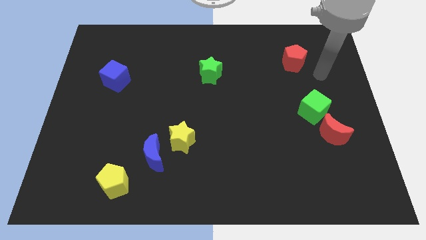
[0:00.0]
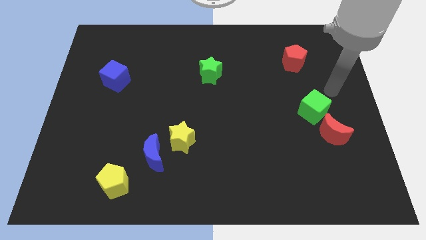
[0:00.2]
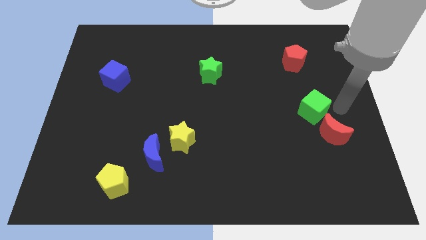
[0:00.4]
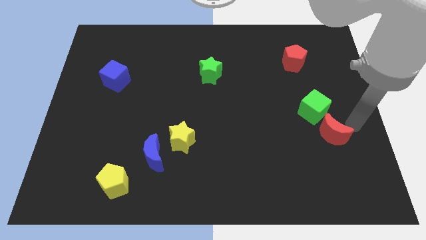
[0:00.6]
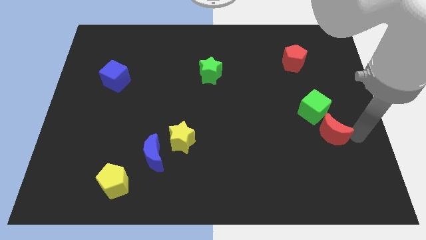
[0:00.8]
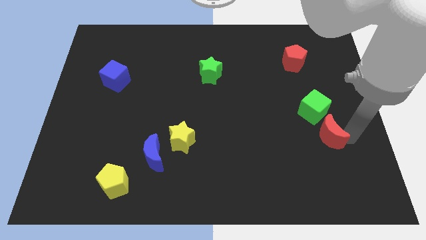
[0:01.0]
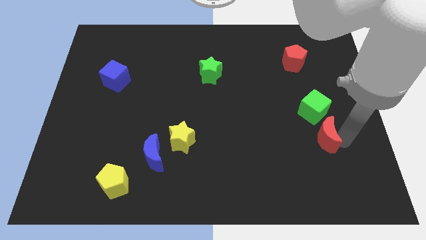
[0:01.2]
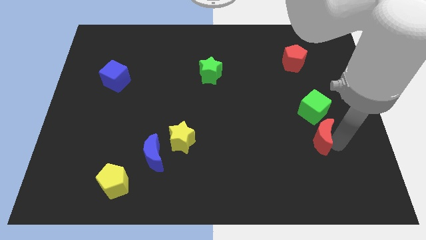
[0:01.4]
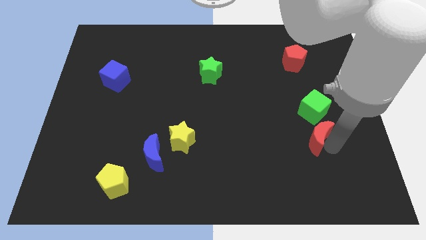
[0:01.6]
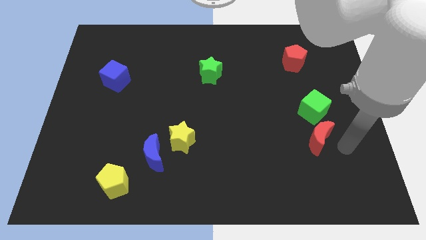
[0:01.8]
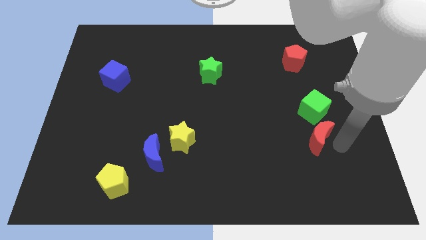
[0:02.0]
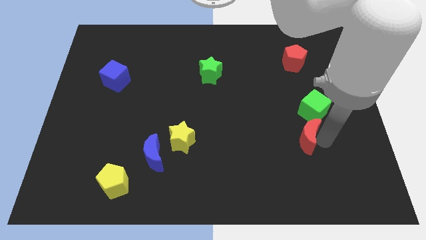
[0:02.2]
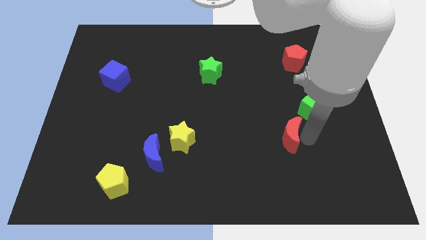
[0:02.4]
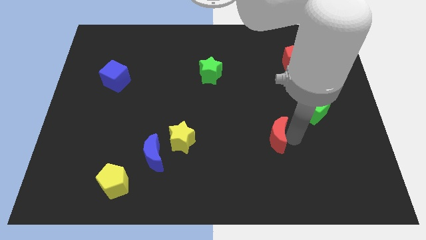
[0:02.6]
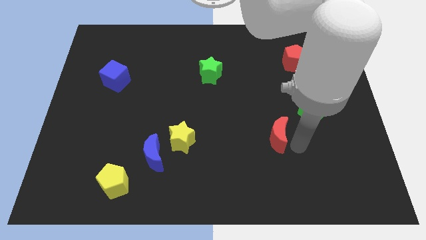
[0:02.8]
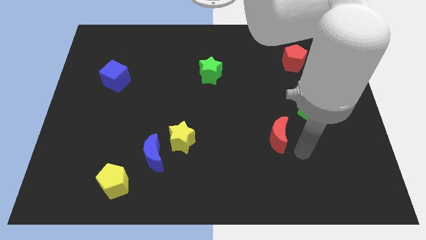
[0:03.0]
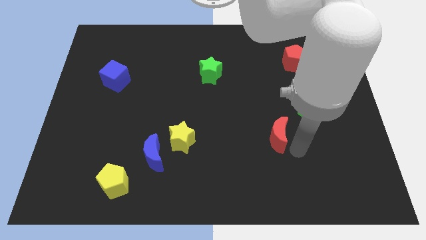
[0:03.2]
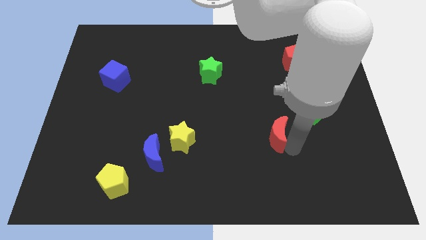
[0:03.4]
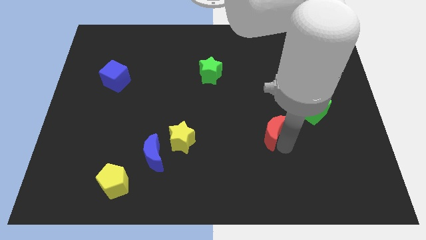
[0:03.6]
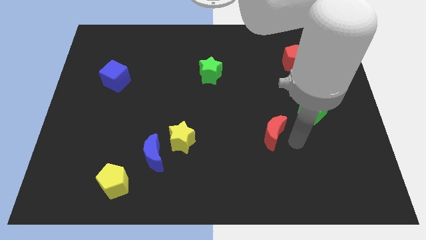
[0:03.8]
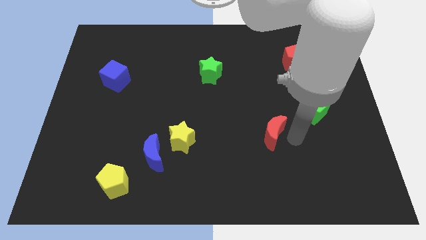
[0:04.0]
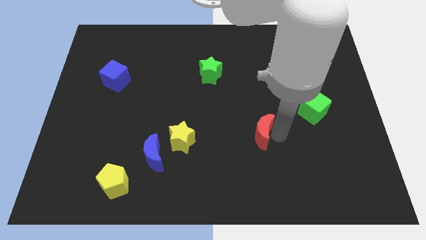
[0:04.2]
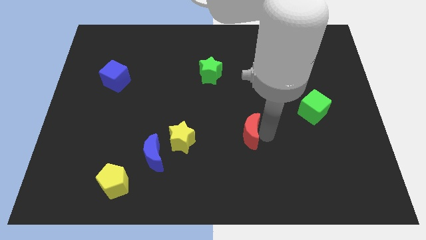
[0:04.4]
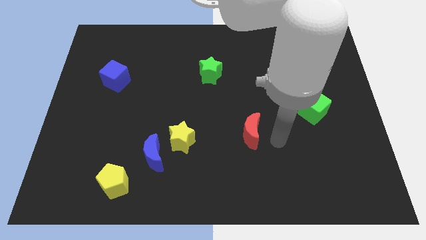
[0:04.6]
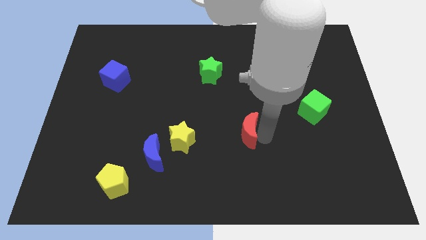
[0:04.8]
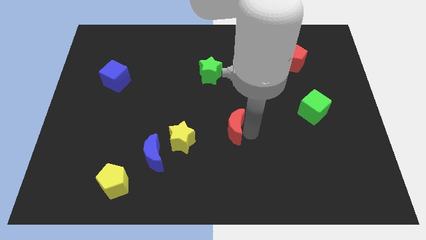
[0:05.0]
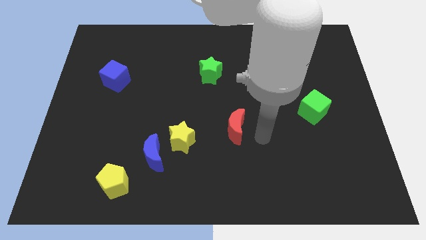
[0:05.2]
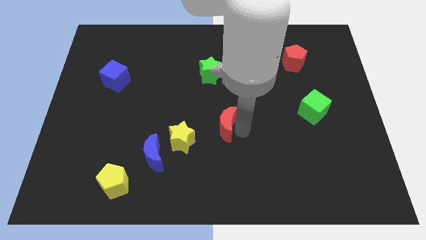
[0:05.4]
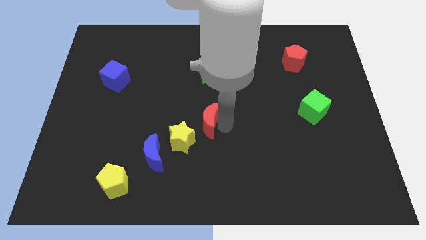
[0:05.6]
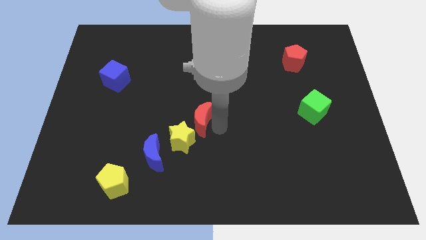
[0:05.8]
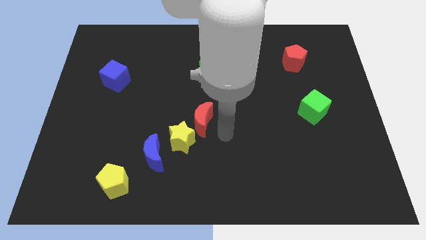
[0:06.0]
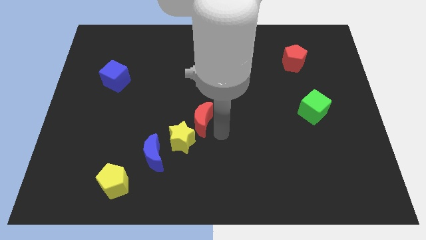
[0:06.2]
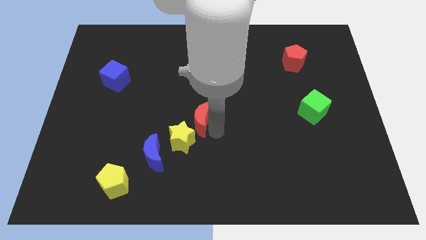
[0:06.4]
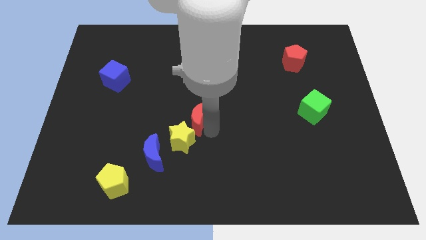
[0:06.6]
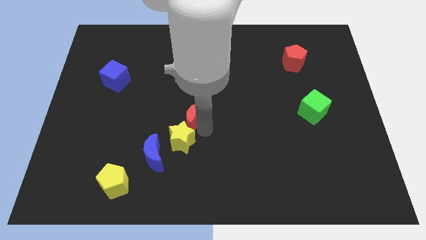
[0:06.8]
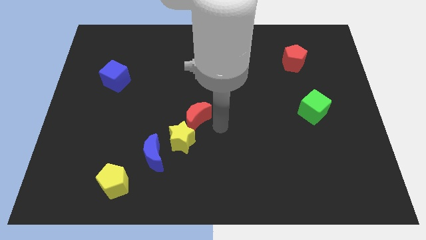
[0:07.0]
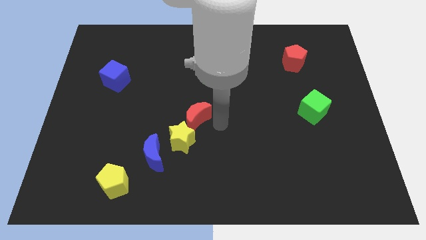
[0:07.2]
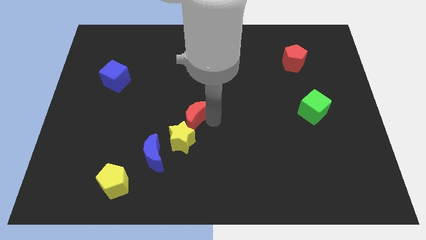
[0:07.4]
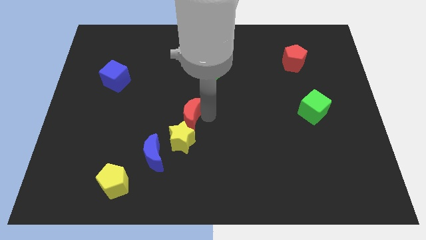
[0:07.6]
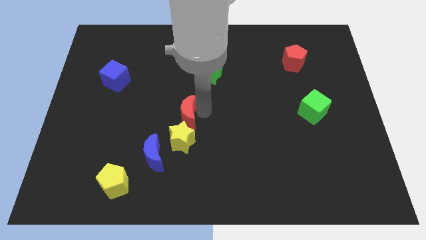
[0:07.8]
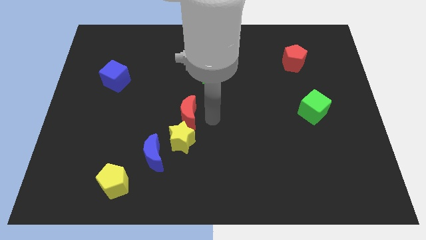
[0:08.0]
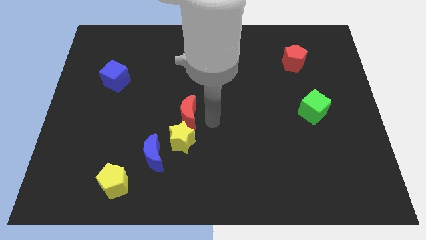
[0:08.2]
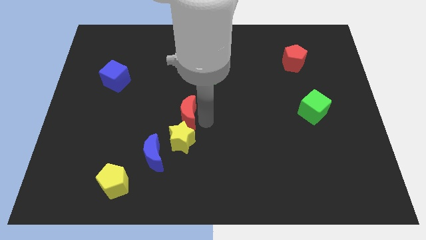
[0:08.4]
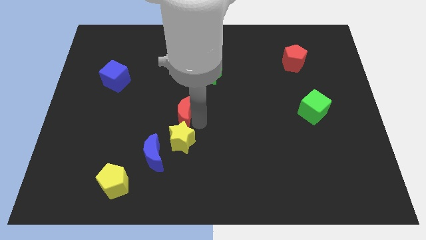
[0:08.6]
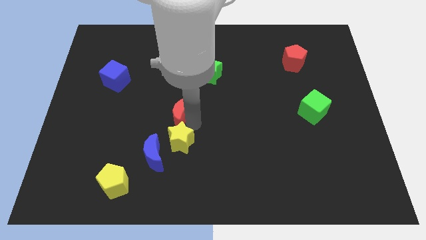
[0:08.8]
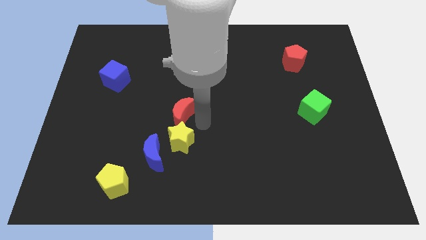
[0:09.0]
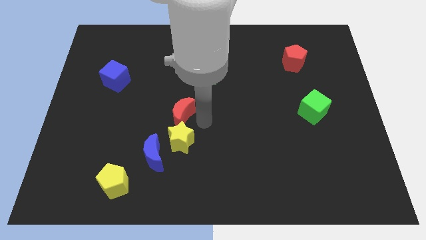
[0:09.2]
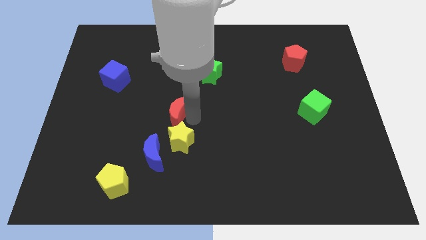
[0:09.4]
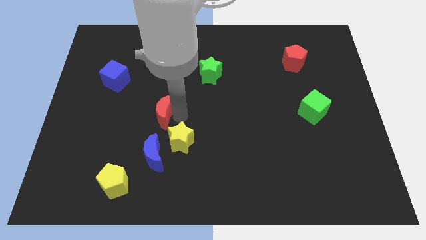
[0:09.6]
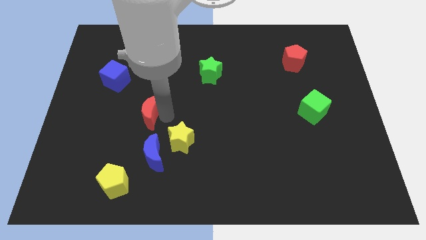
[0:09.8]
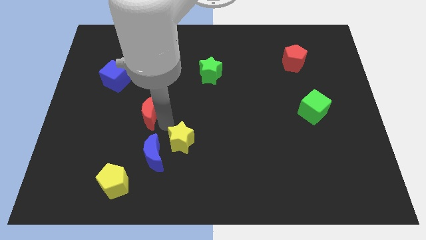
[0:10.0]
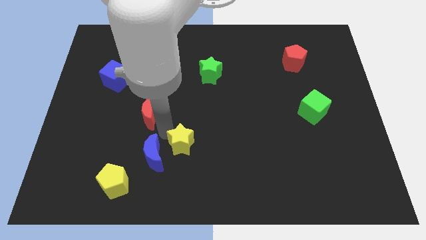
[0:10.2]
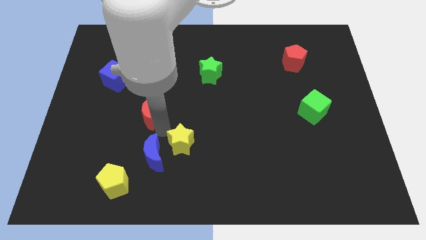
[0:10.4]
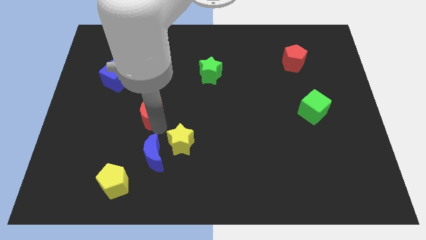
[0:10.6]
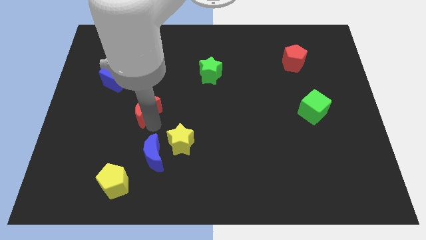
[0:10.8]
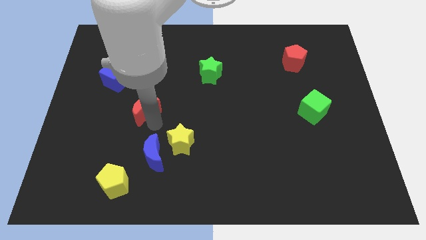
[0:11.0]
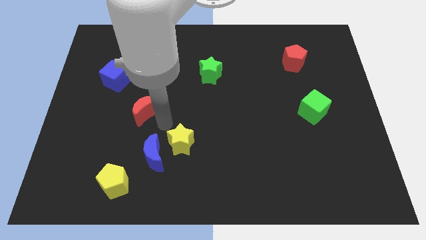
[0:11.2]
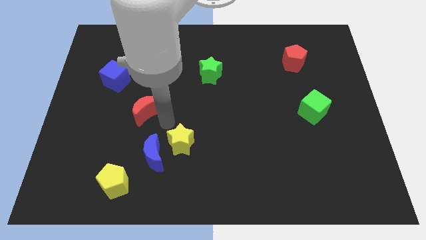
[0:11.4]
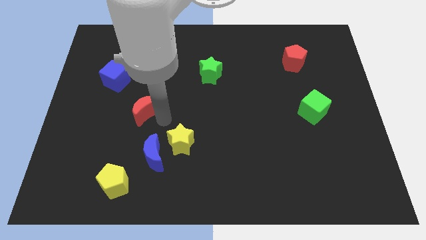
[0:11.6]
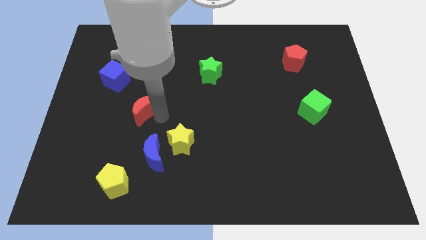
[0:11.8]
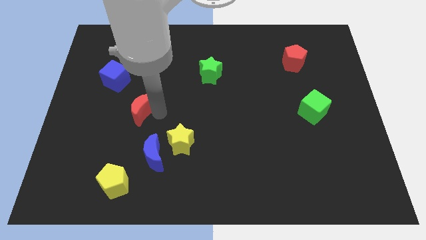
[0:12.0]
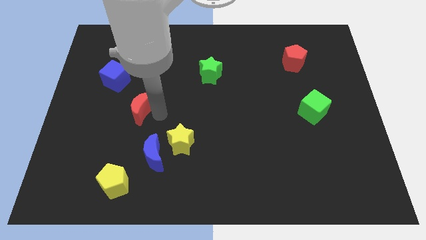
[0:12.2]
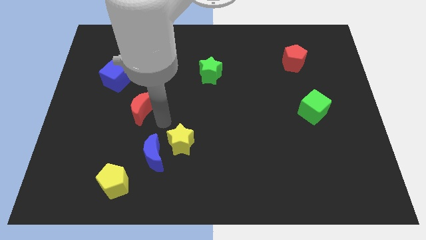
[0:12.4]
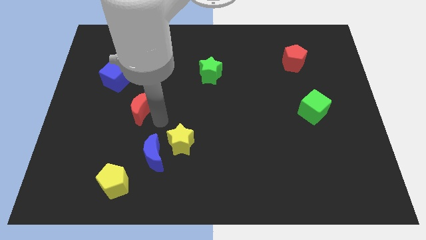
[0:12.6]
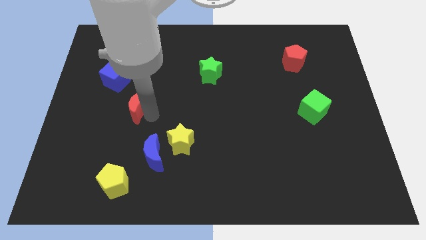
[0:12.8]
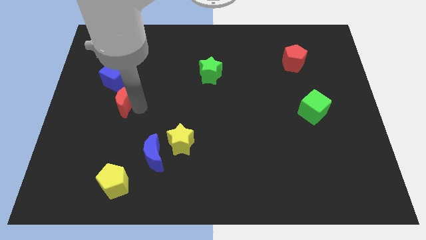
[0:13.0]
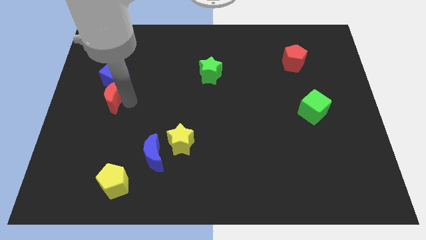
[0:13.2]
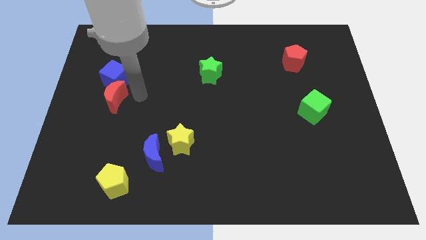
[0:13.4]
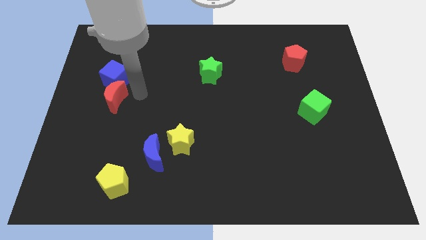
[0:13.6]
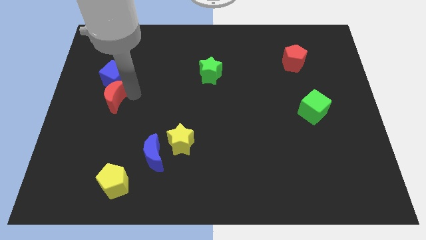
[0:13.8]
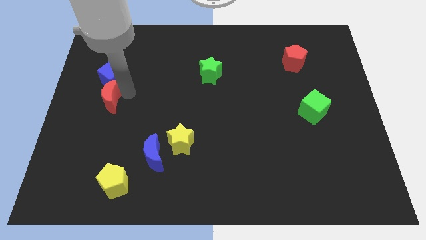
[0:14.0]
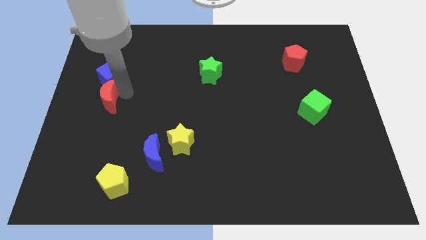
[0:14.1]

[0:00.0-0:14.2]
slide the red moon to the left side of the board
